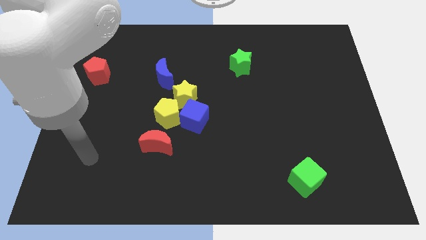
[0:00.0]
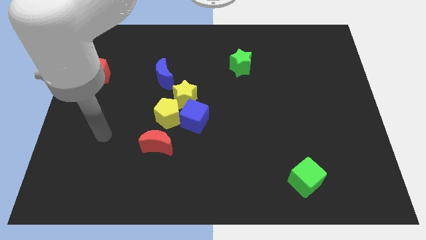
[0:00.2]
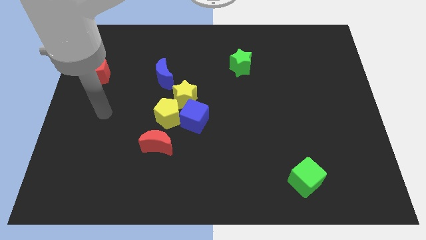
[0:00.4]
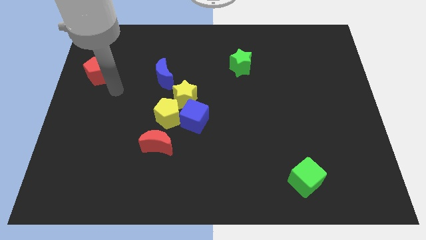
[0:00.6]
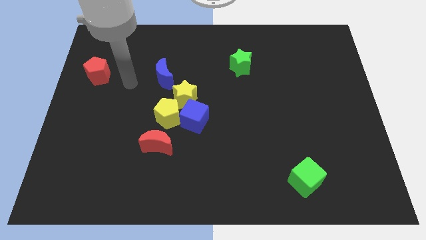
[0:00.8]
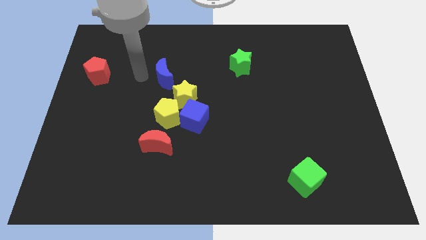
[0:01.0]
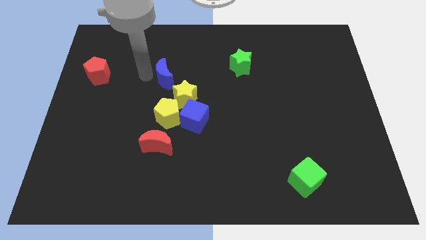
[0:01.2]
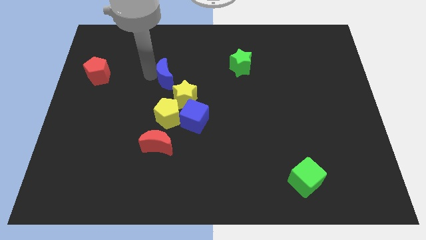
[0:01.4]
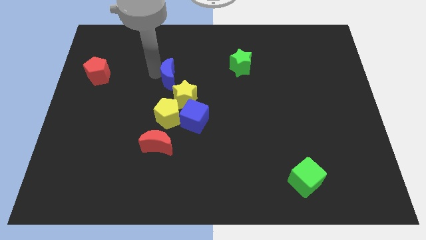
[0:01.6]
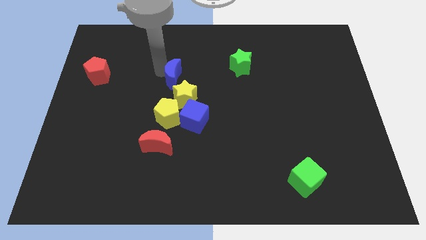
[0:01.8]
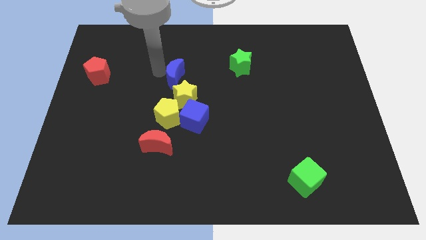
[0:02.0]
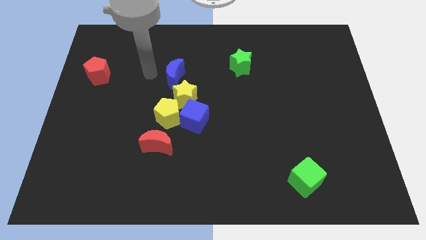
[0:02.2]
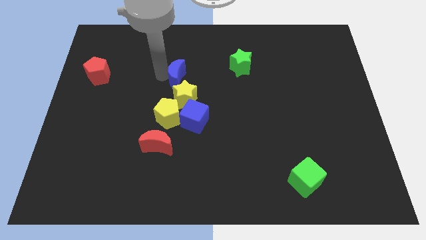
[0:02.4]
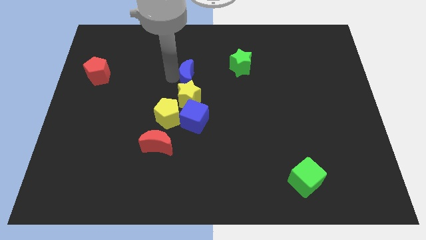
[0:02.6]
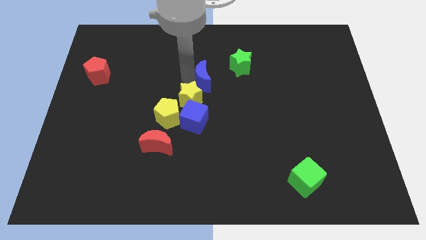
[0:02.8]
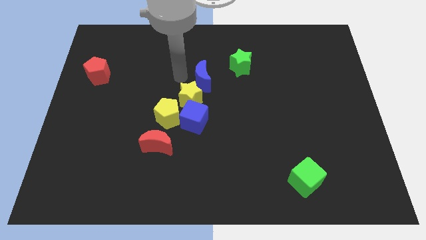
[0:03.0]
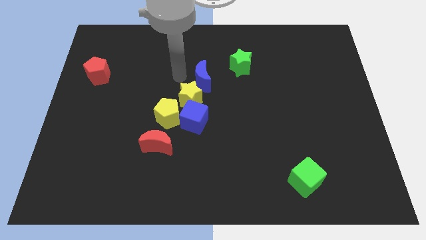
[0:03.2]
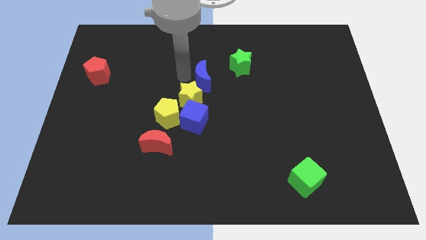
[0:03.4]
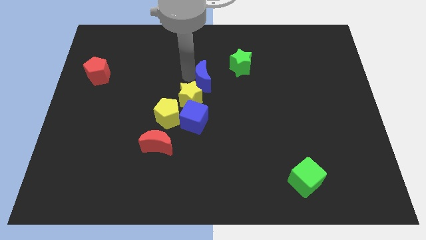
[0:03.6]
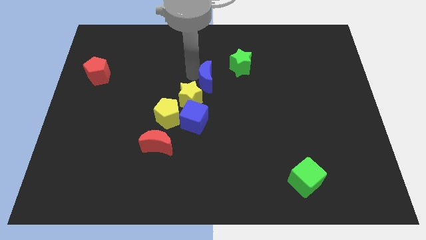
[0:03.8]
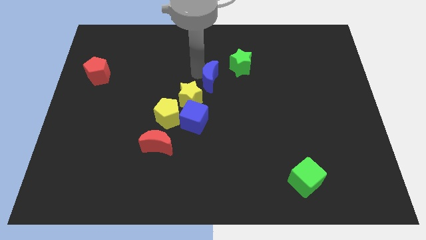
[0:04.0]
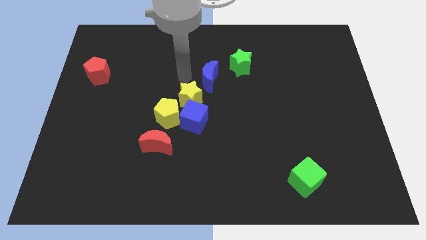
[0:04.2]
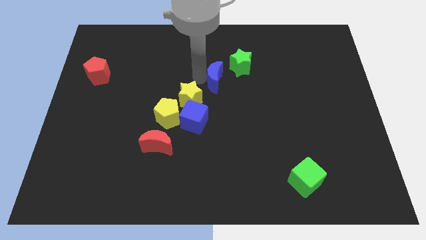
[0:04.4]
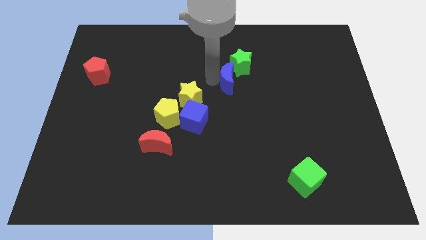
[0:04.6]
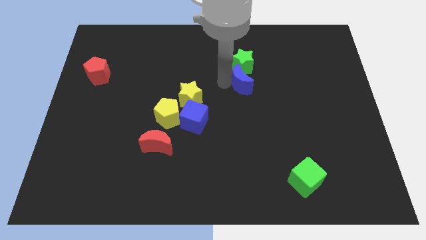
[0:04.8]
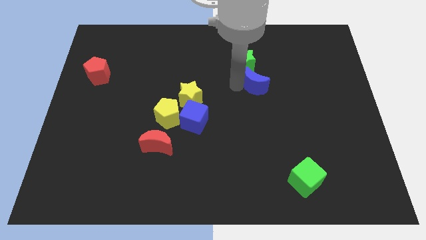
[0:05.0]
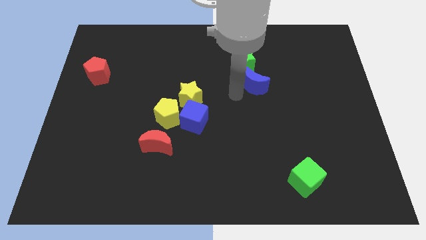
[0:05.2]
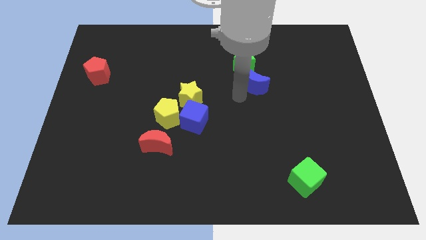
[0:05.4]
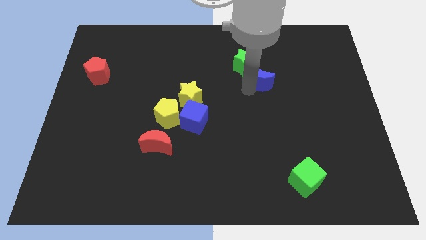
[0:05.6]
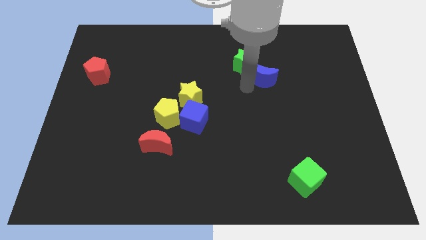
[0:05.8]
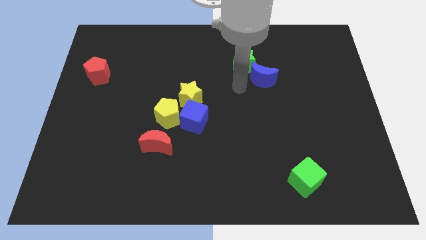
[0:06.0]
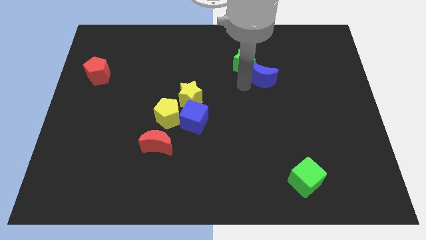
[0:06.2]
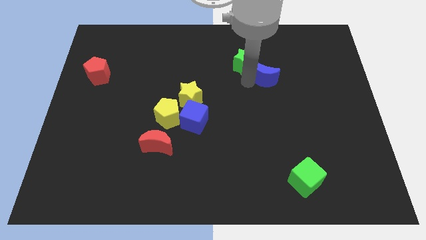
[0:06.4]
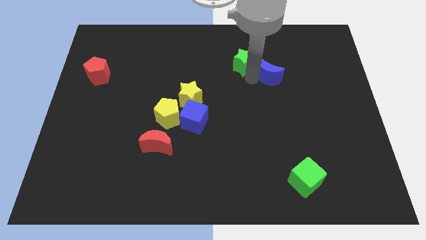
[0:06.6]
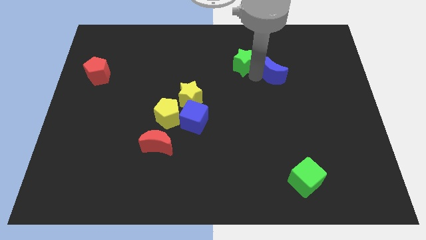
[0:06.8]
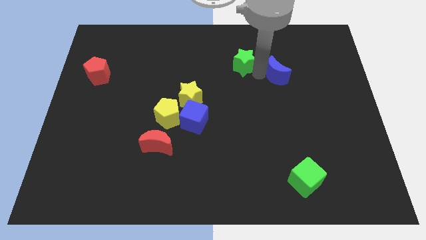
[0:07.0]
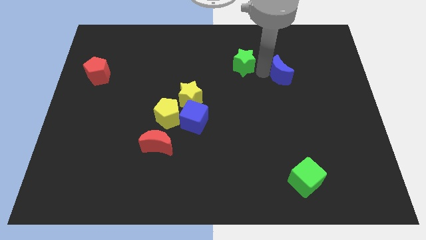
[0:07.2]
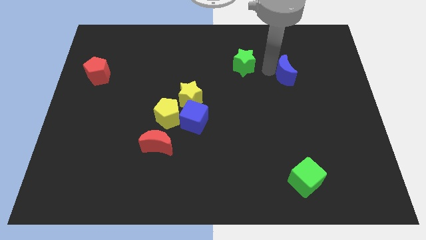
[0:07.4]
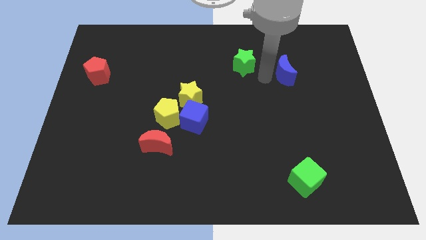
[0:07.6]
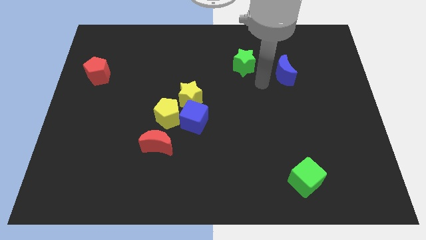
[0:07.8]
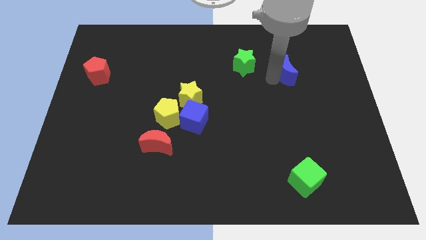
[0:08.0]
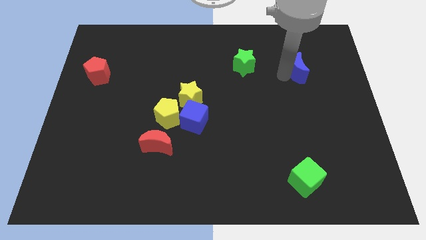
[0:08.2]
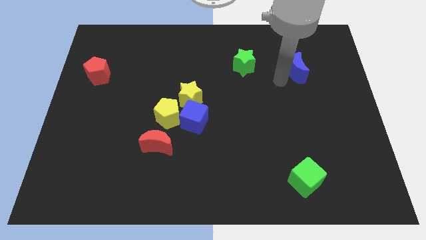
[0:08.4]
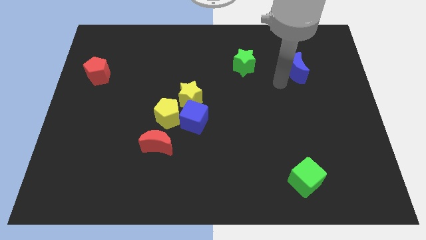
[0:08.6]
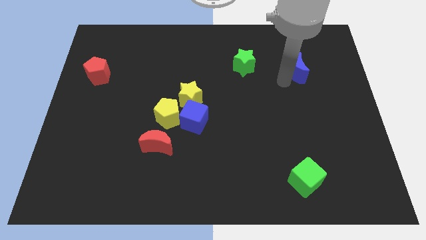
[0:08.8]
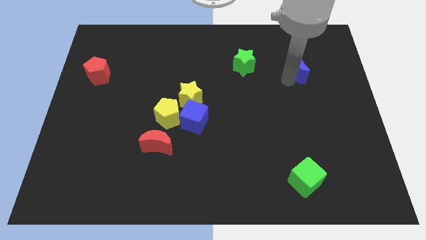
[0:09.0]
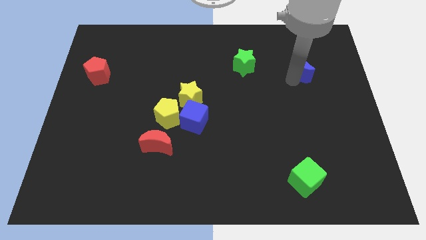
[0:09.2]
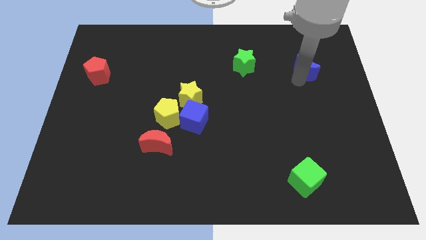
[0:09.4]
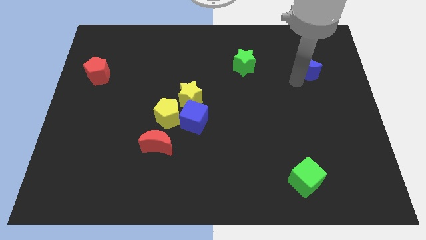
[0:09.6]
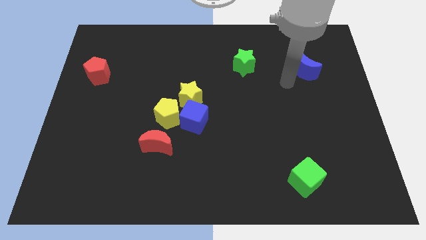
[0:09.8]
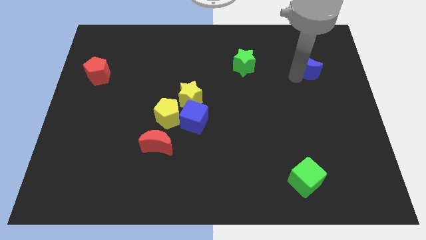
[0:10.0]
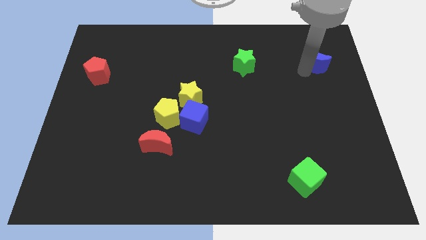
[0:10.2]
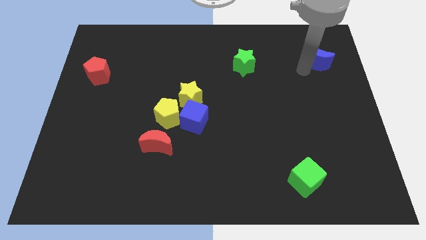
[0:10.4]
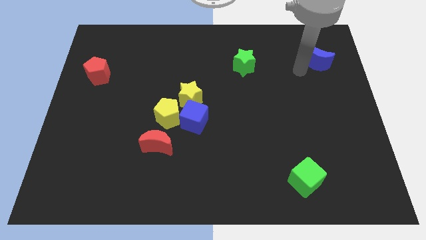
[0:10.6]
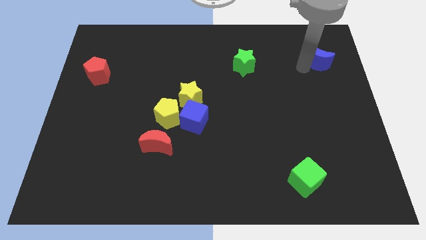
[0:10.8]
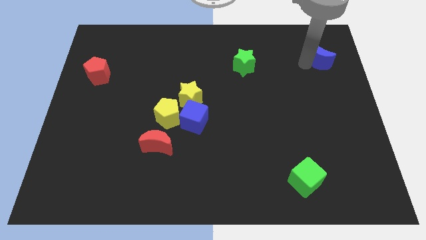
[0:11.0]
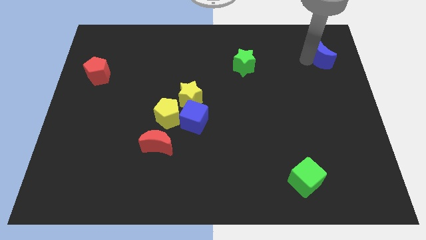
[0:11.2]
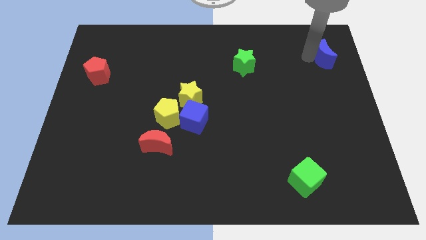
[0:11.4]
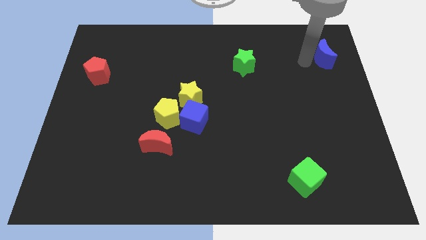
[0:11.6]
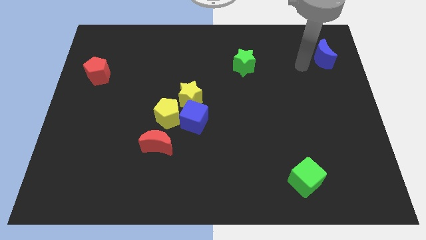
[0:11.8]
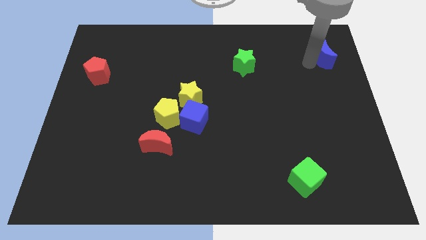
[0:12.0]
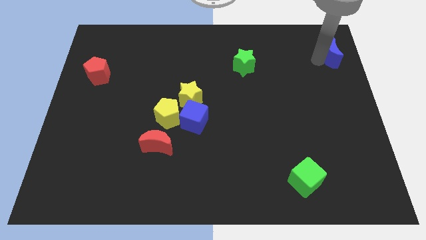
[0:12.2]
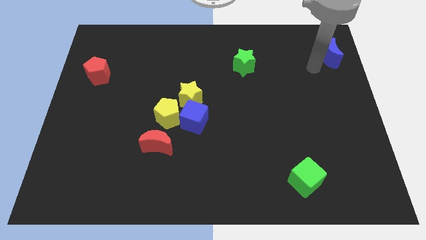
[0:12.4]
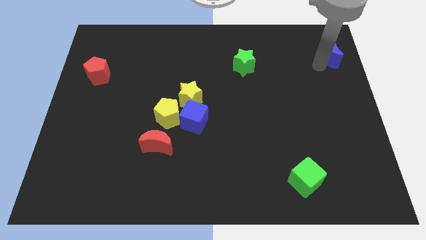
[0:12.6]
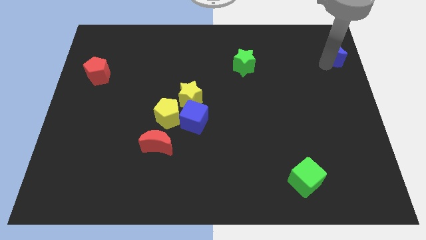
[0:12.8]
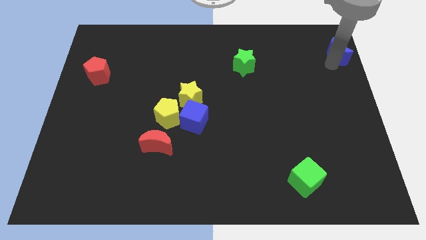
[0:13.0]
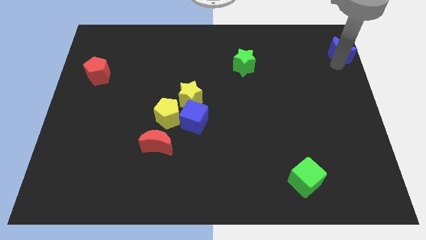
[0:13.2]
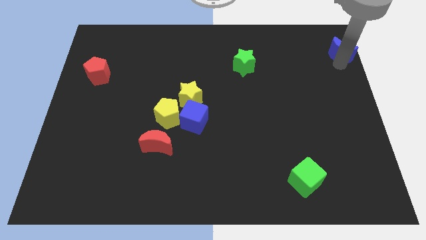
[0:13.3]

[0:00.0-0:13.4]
put the blue moon to the top right corner
